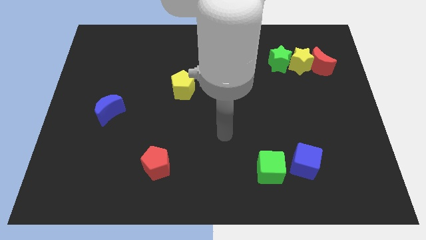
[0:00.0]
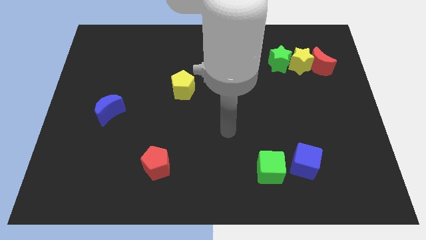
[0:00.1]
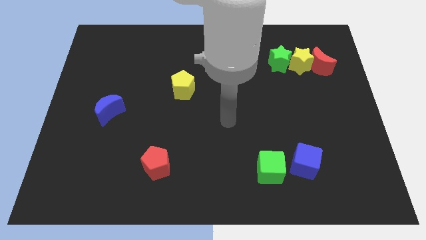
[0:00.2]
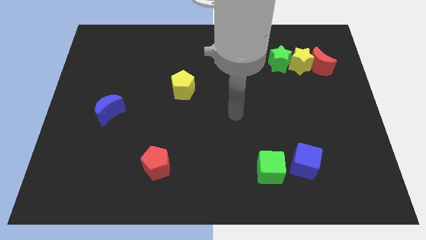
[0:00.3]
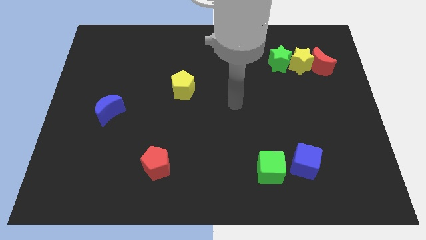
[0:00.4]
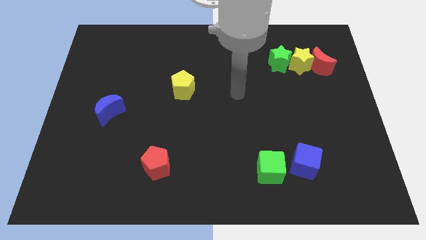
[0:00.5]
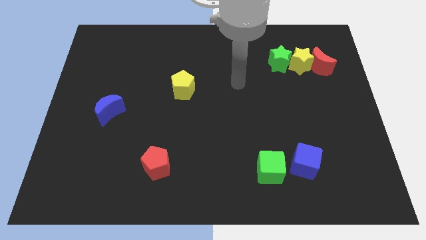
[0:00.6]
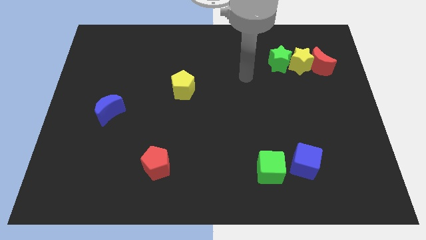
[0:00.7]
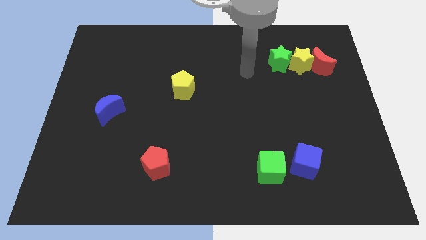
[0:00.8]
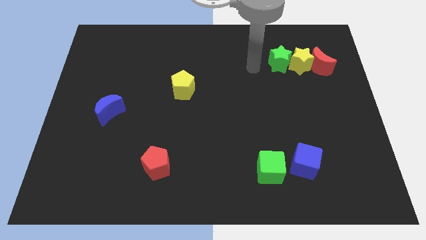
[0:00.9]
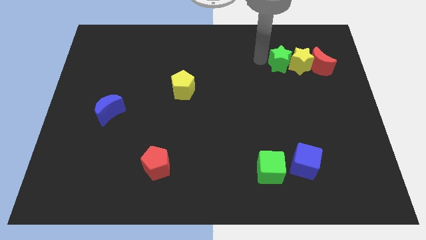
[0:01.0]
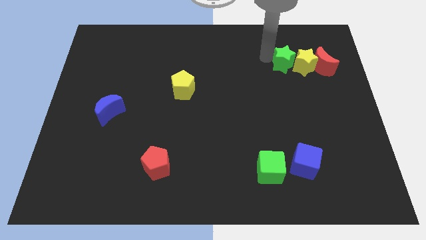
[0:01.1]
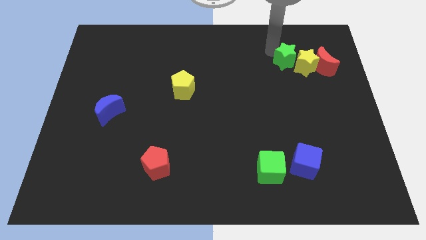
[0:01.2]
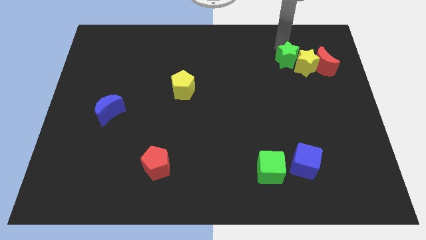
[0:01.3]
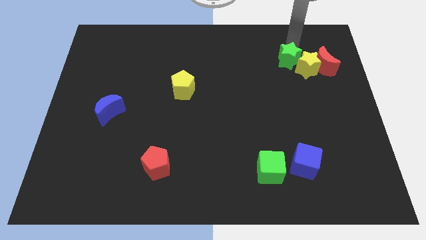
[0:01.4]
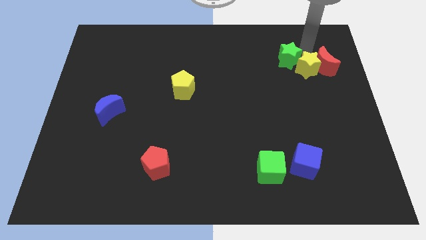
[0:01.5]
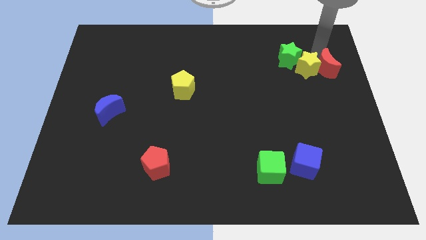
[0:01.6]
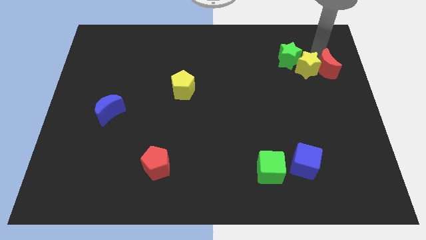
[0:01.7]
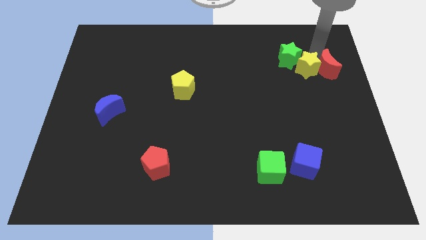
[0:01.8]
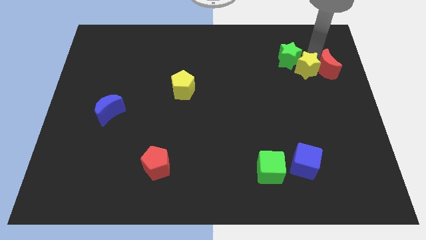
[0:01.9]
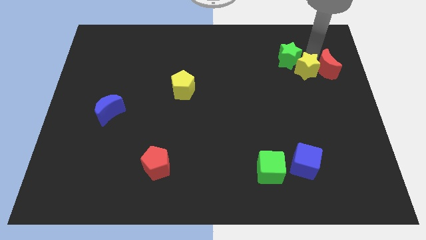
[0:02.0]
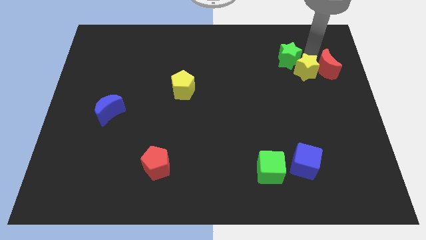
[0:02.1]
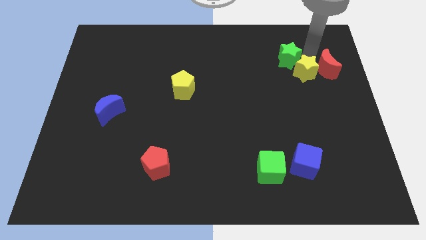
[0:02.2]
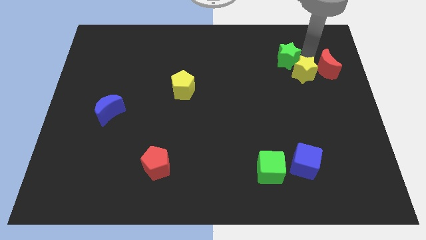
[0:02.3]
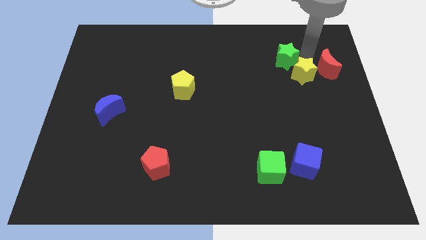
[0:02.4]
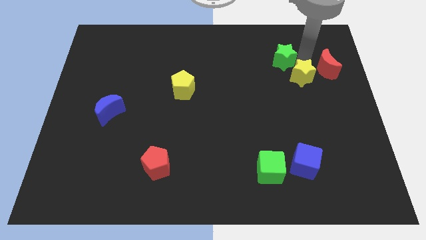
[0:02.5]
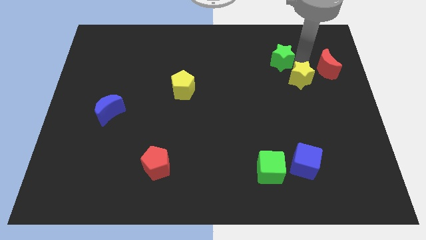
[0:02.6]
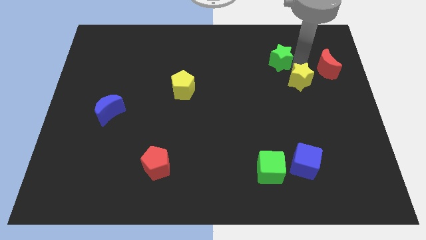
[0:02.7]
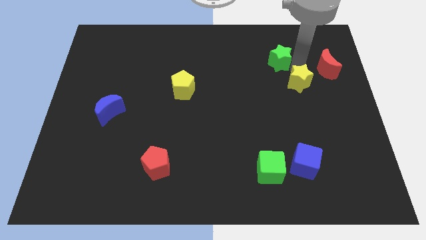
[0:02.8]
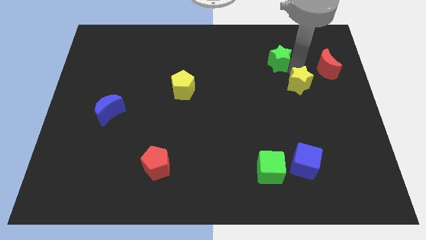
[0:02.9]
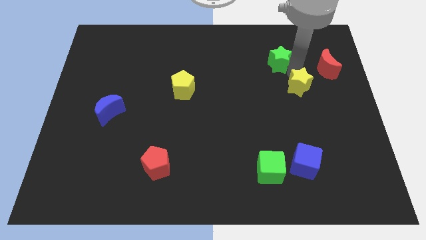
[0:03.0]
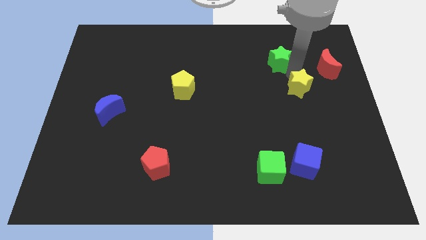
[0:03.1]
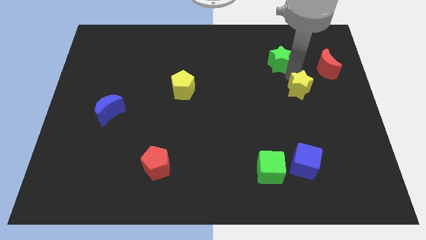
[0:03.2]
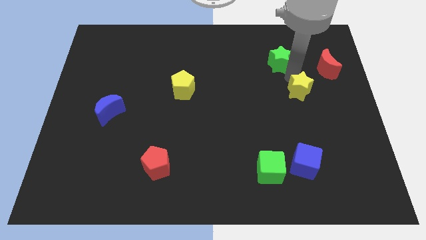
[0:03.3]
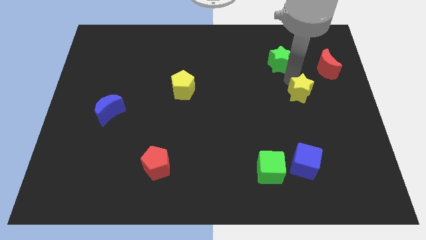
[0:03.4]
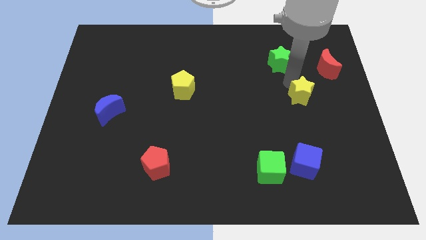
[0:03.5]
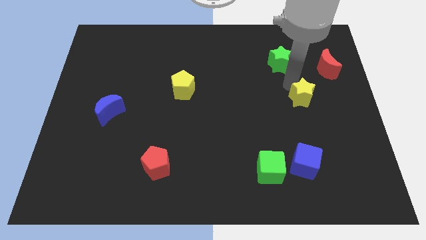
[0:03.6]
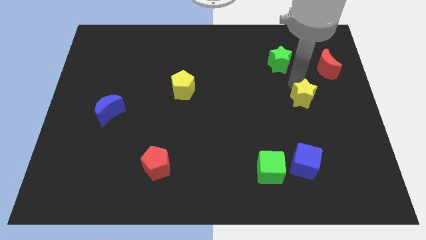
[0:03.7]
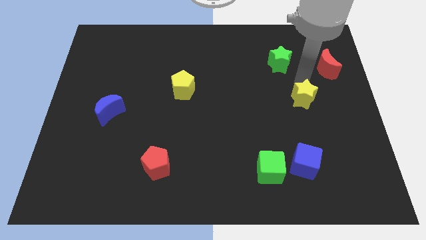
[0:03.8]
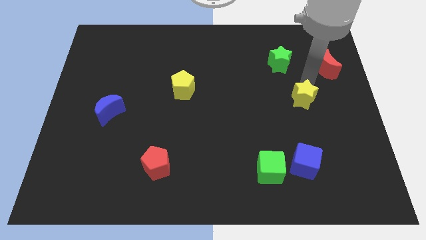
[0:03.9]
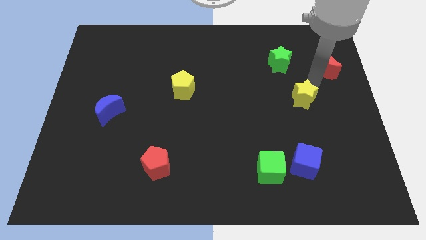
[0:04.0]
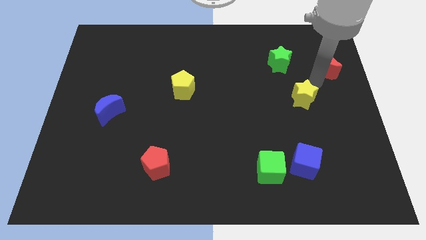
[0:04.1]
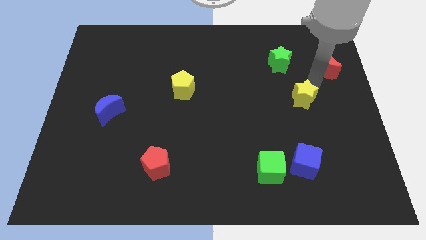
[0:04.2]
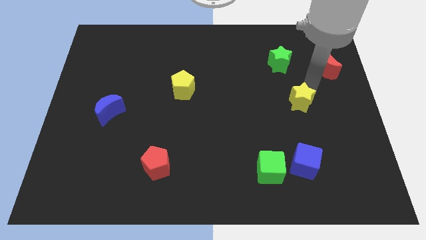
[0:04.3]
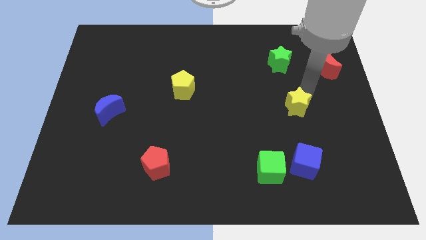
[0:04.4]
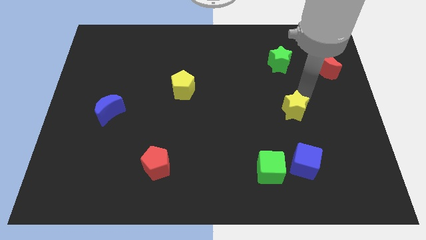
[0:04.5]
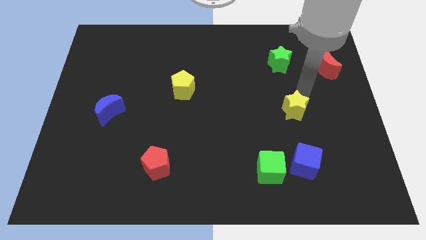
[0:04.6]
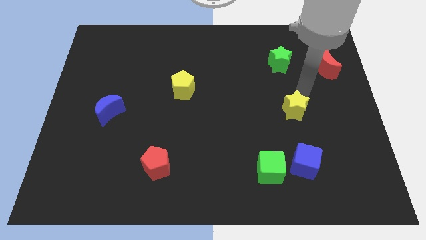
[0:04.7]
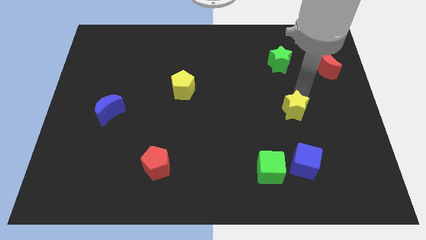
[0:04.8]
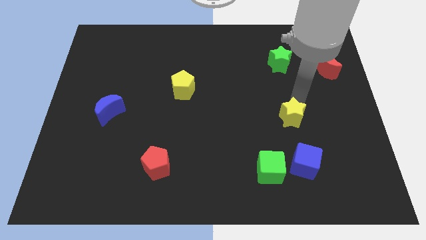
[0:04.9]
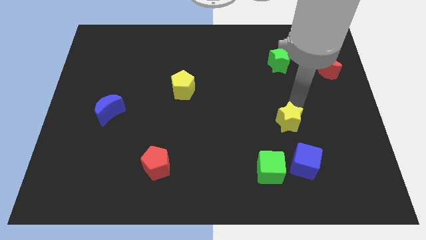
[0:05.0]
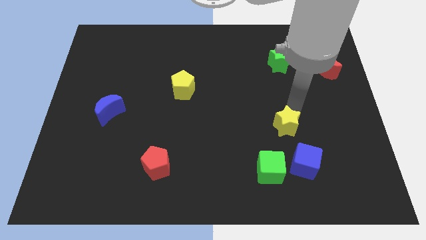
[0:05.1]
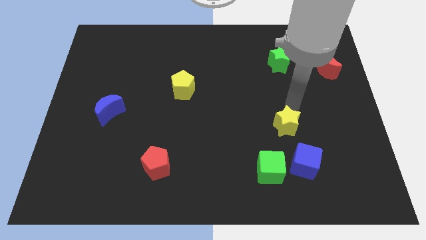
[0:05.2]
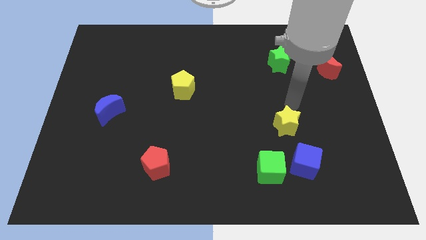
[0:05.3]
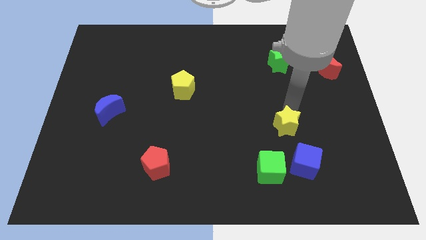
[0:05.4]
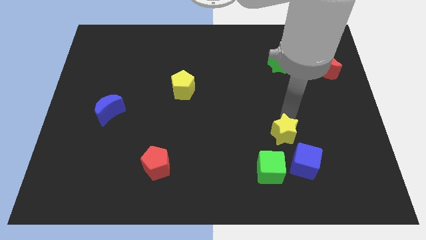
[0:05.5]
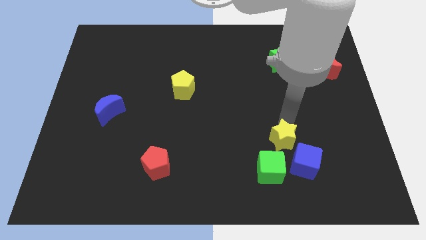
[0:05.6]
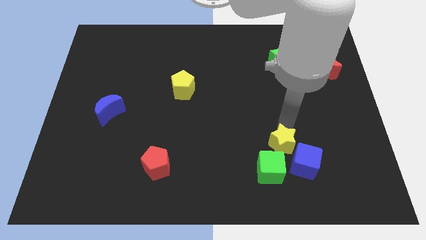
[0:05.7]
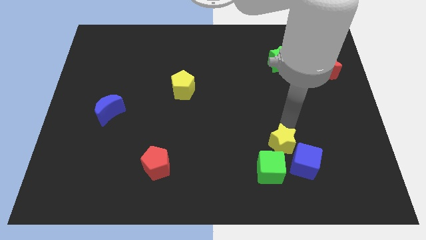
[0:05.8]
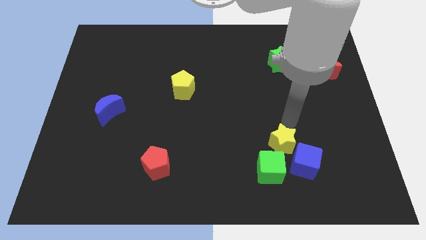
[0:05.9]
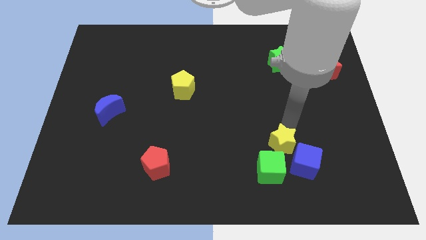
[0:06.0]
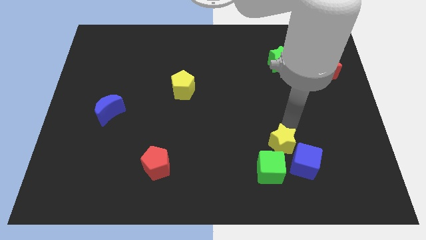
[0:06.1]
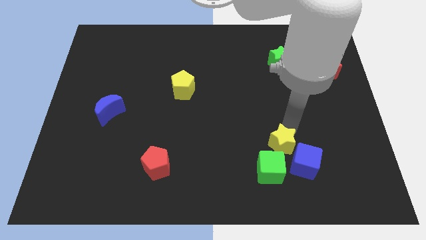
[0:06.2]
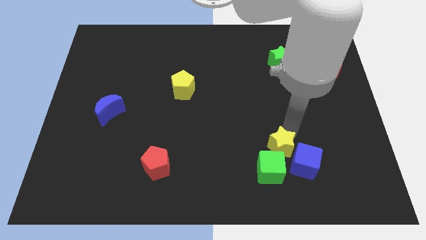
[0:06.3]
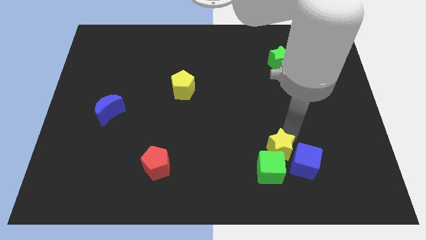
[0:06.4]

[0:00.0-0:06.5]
push the yellow star towards the green cube
